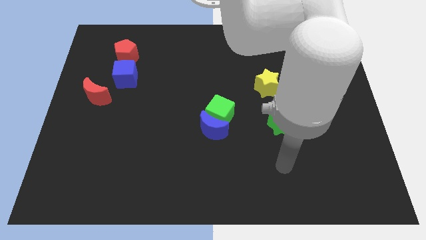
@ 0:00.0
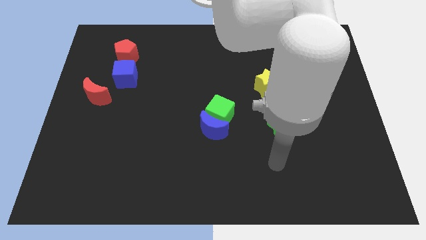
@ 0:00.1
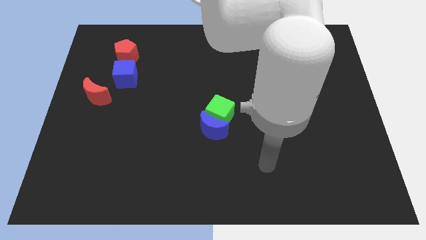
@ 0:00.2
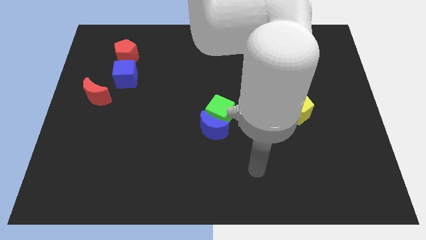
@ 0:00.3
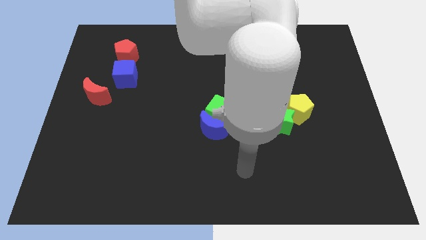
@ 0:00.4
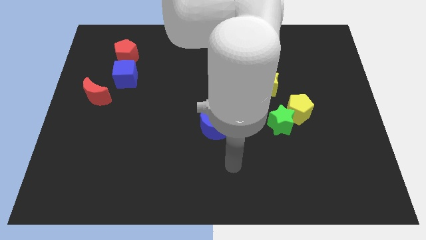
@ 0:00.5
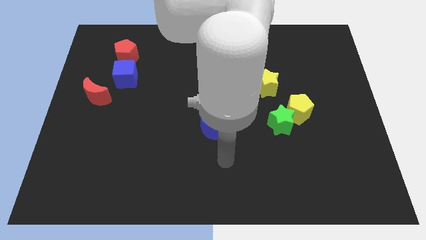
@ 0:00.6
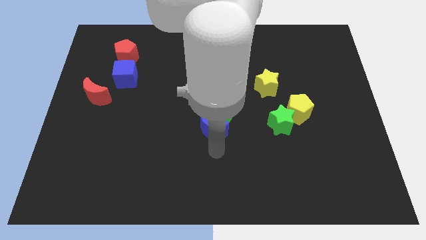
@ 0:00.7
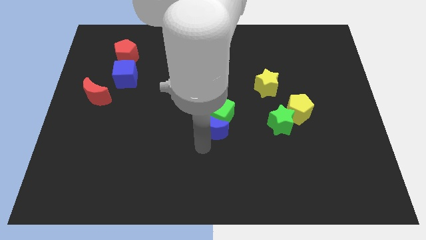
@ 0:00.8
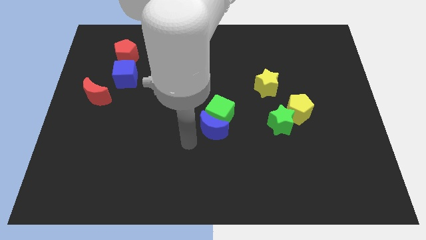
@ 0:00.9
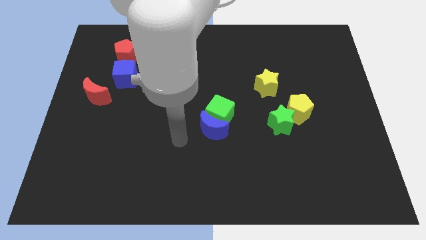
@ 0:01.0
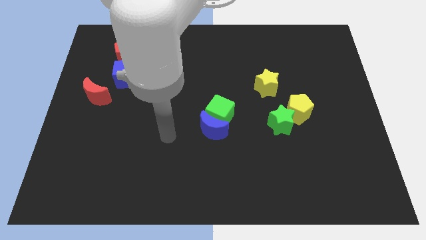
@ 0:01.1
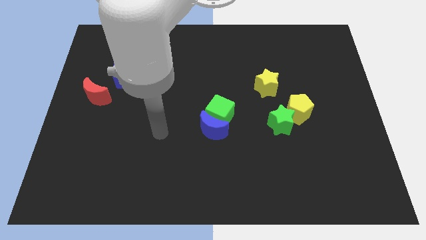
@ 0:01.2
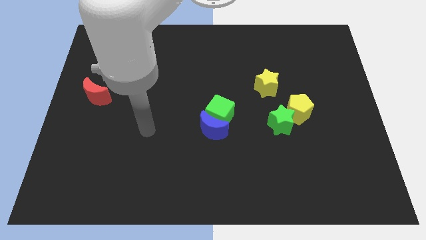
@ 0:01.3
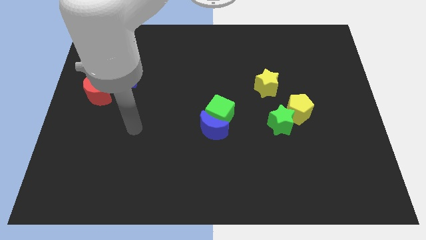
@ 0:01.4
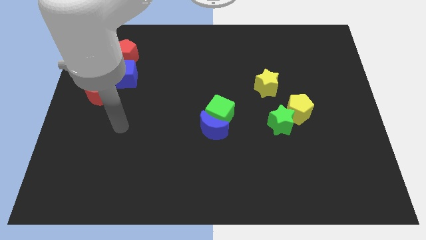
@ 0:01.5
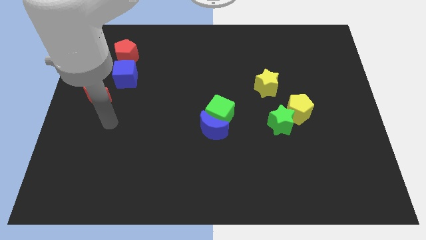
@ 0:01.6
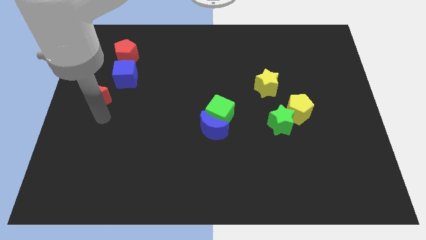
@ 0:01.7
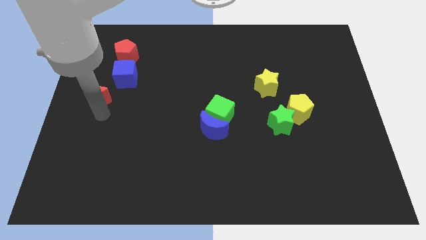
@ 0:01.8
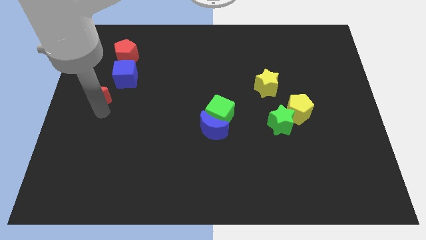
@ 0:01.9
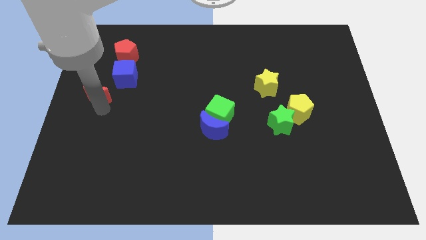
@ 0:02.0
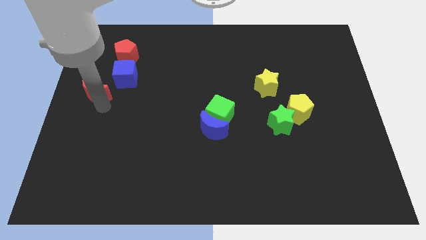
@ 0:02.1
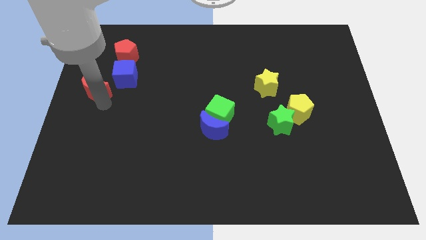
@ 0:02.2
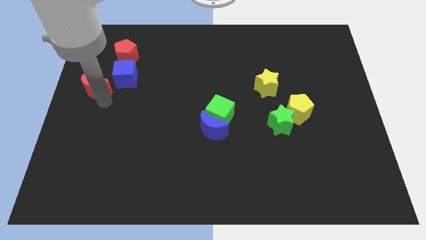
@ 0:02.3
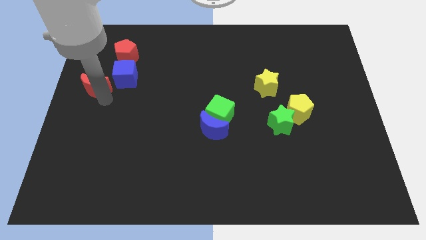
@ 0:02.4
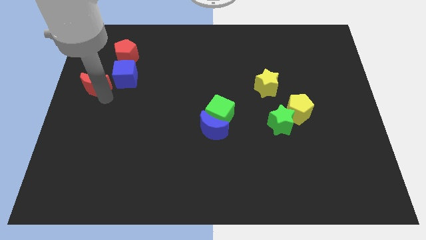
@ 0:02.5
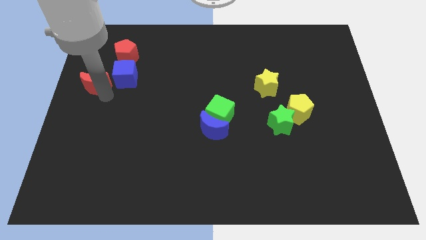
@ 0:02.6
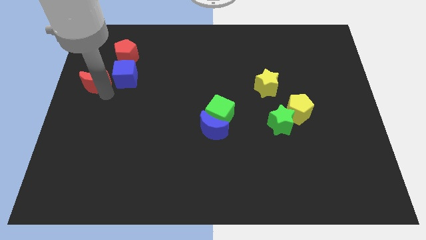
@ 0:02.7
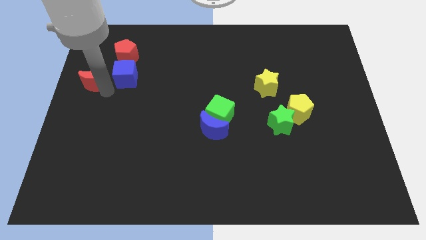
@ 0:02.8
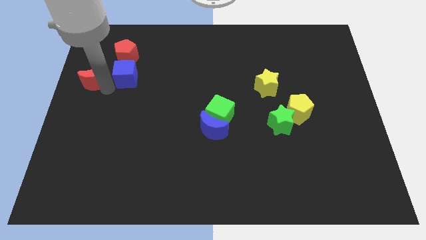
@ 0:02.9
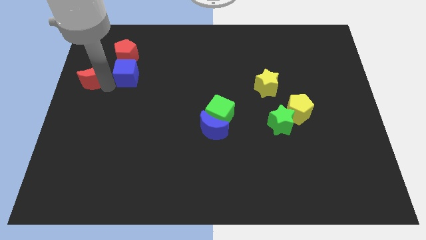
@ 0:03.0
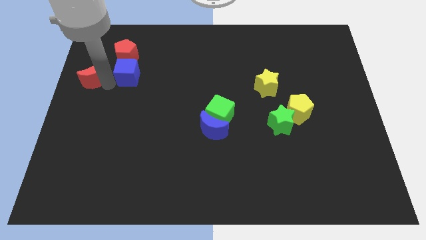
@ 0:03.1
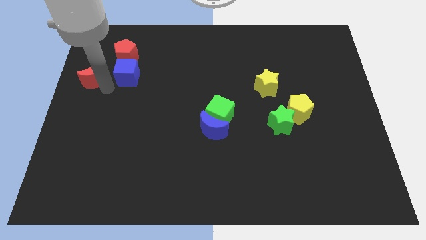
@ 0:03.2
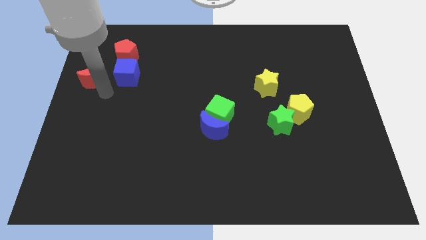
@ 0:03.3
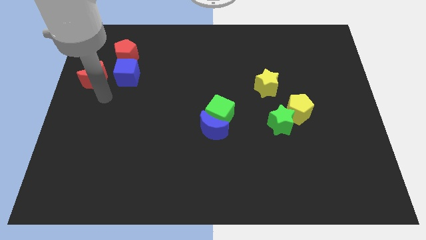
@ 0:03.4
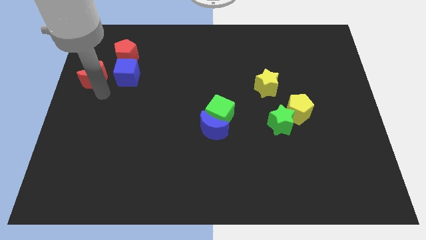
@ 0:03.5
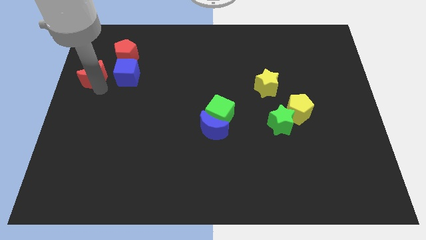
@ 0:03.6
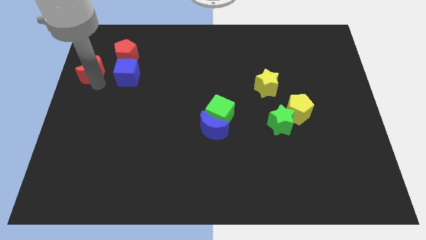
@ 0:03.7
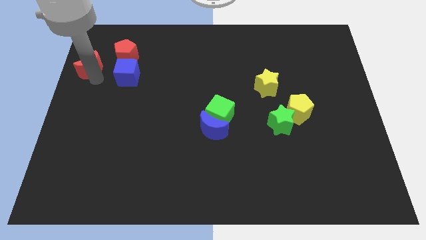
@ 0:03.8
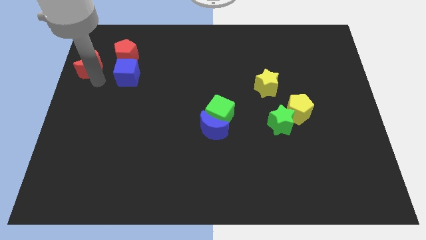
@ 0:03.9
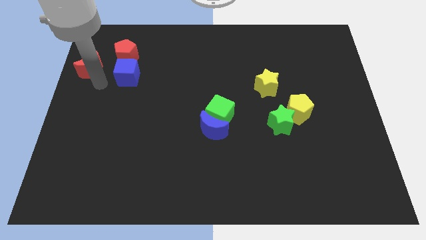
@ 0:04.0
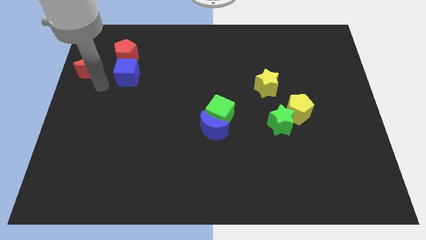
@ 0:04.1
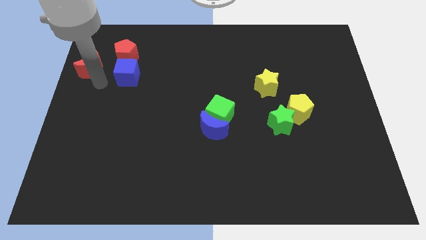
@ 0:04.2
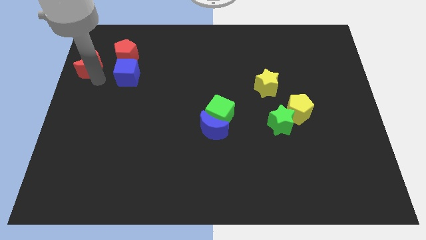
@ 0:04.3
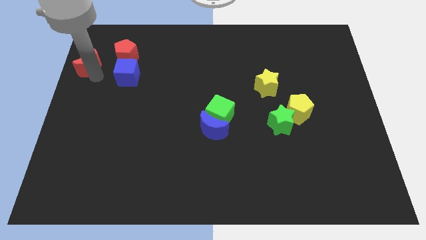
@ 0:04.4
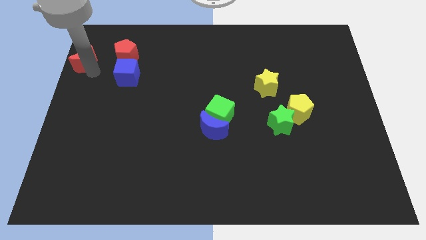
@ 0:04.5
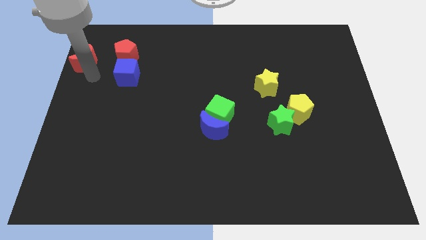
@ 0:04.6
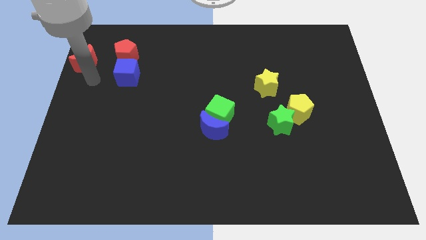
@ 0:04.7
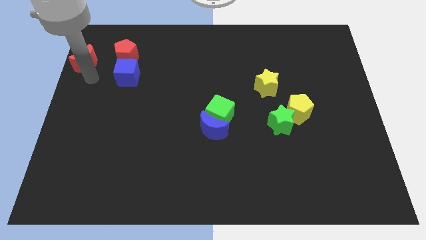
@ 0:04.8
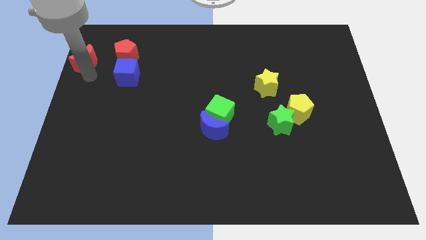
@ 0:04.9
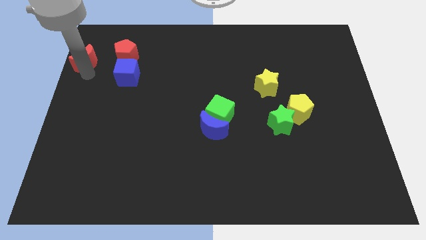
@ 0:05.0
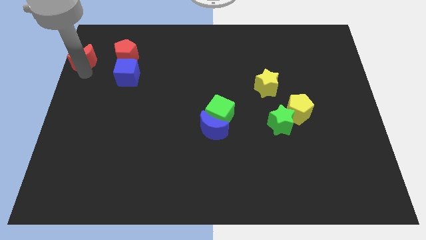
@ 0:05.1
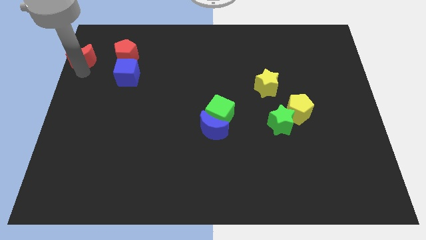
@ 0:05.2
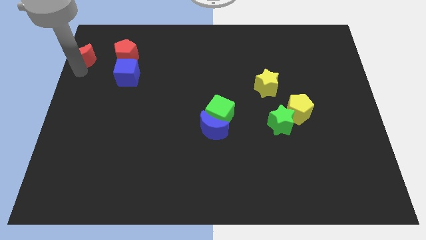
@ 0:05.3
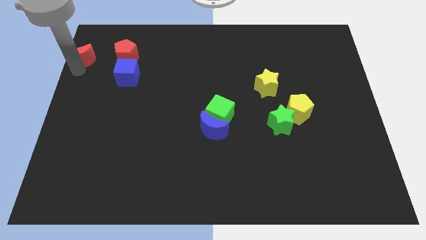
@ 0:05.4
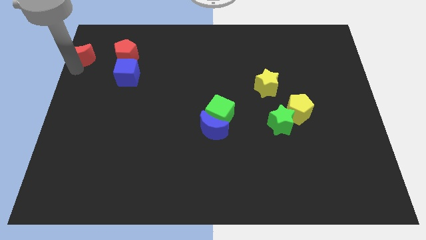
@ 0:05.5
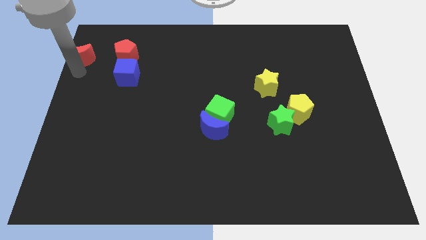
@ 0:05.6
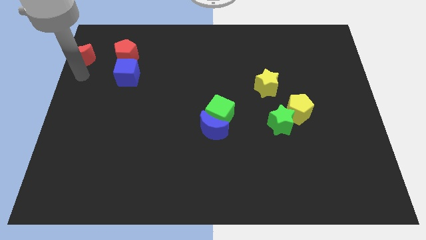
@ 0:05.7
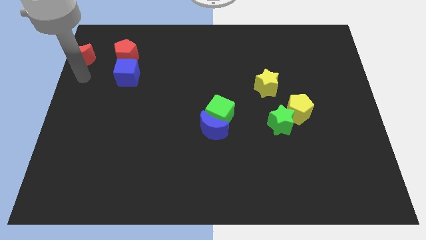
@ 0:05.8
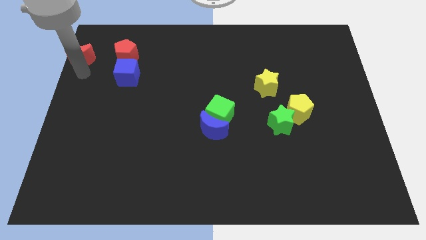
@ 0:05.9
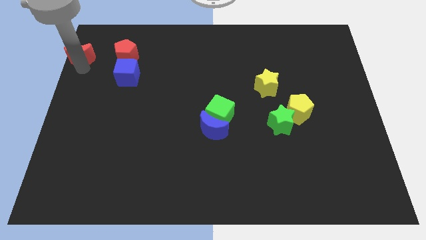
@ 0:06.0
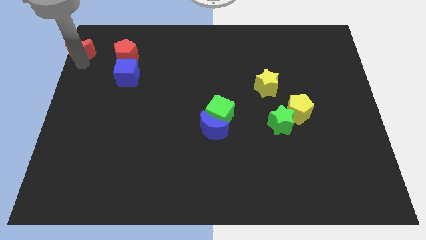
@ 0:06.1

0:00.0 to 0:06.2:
put the red moon to the upper left corner
